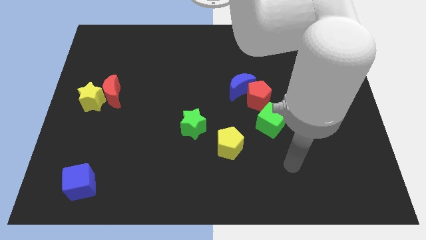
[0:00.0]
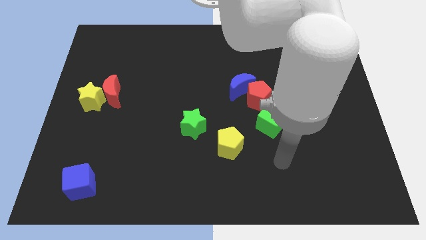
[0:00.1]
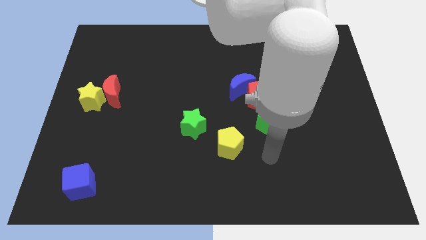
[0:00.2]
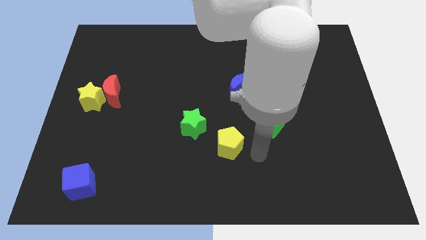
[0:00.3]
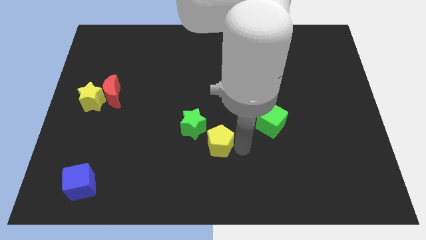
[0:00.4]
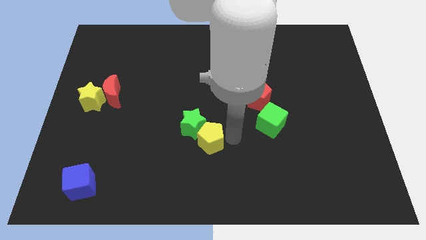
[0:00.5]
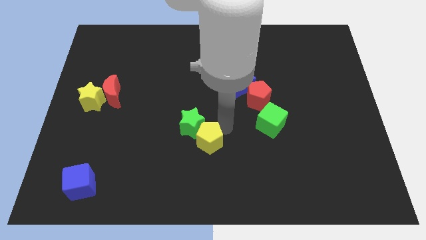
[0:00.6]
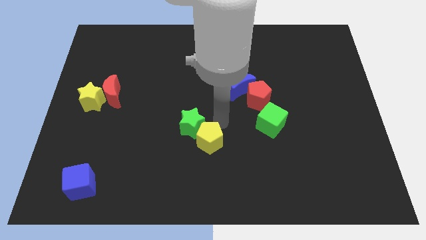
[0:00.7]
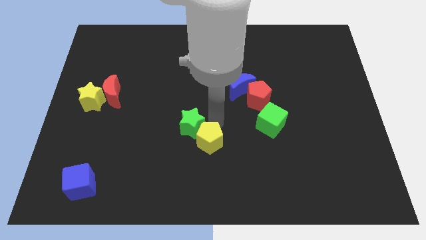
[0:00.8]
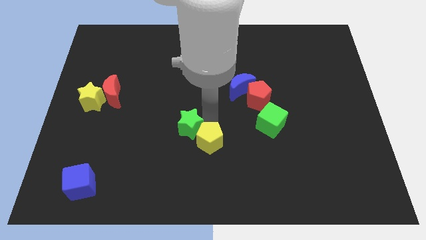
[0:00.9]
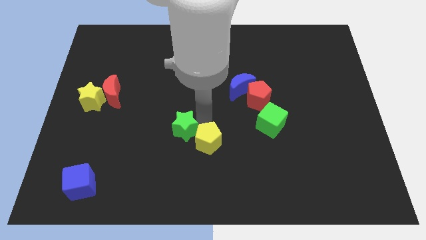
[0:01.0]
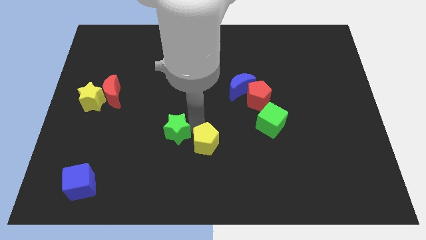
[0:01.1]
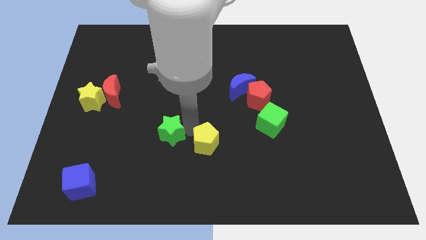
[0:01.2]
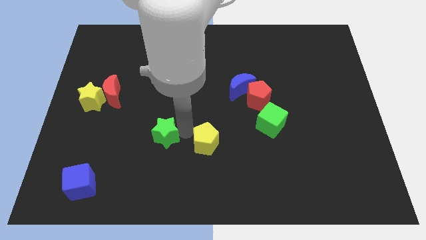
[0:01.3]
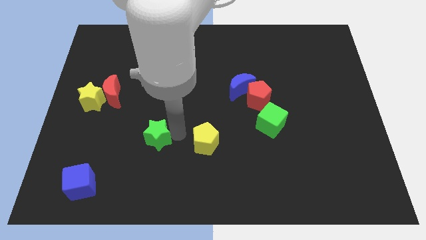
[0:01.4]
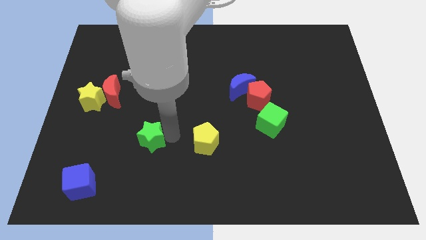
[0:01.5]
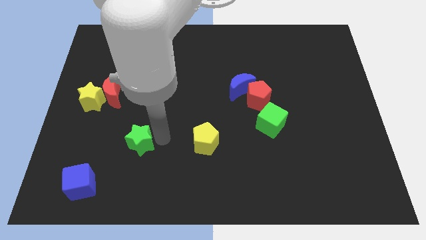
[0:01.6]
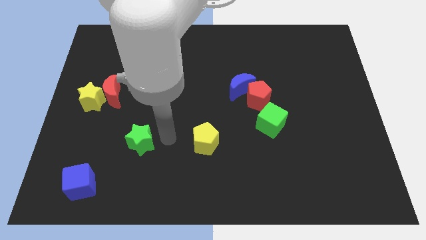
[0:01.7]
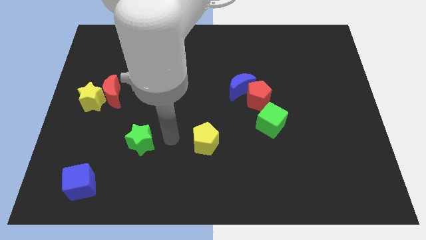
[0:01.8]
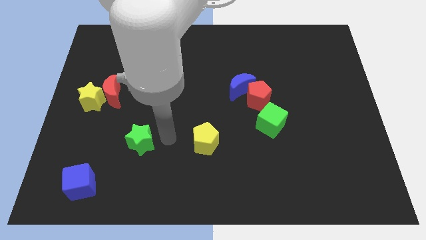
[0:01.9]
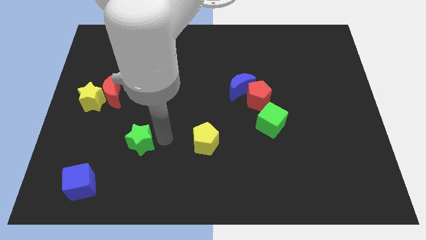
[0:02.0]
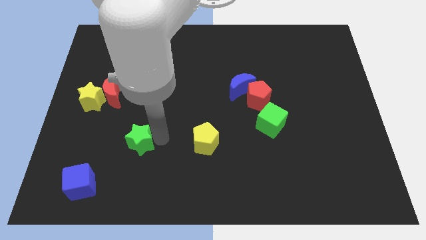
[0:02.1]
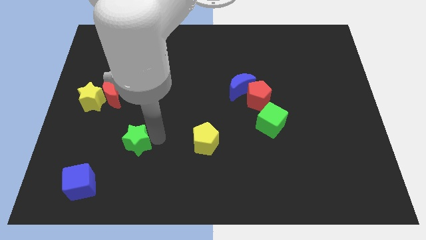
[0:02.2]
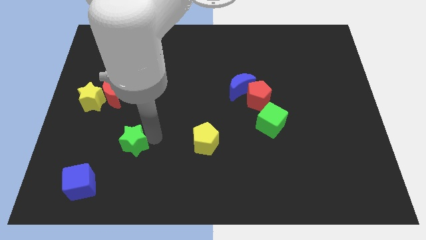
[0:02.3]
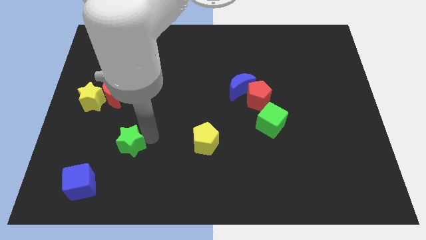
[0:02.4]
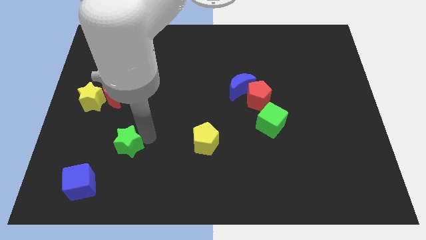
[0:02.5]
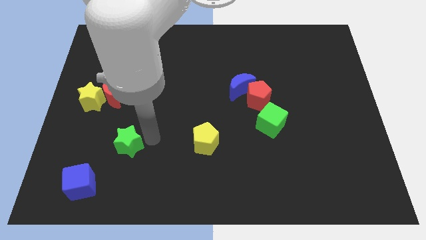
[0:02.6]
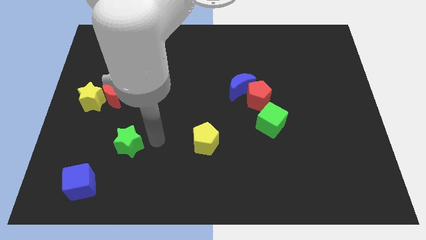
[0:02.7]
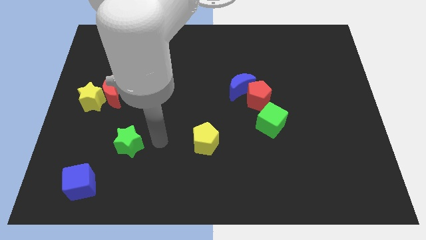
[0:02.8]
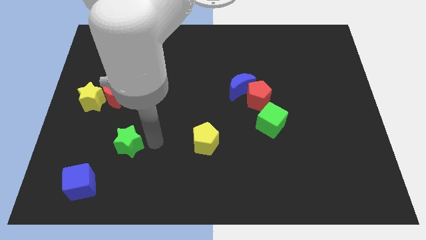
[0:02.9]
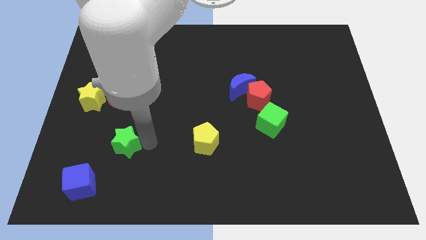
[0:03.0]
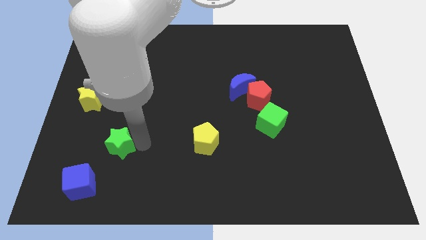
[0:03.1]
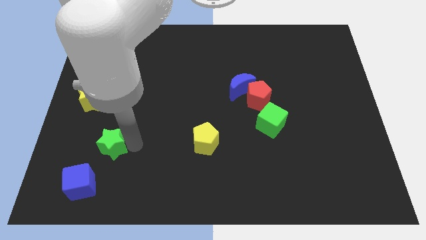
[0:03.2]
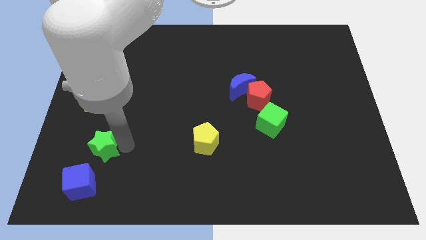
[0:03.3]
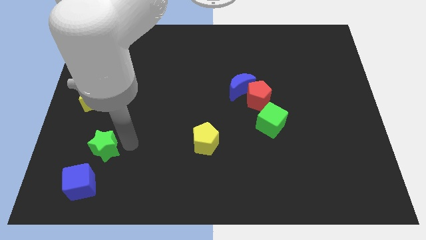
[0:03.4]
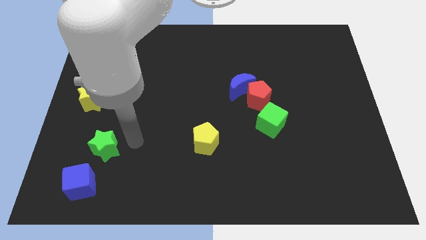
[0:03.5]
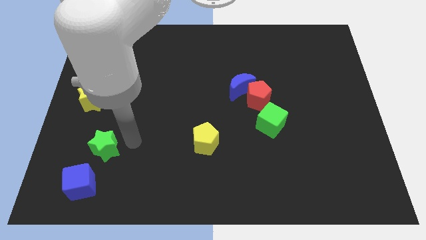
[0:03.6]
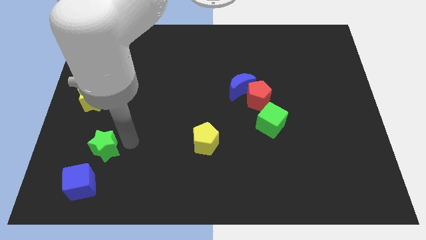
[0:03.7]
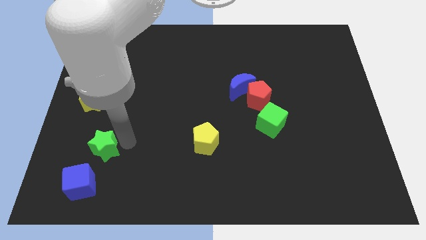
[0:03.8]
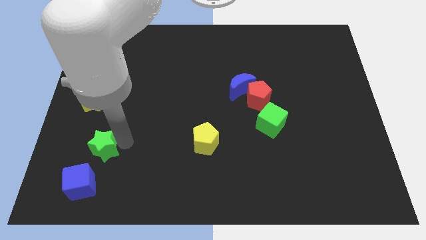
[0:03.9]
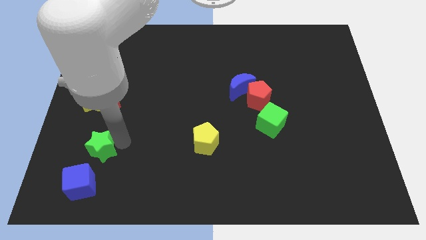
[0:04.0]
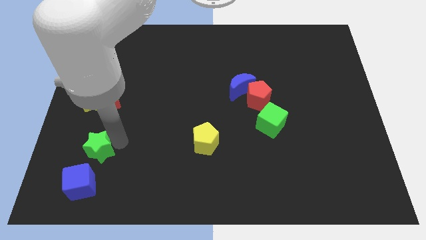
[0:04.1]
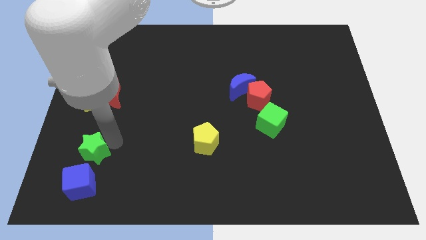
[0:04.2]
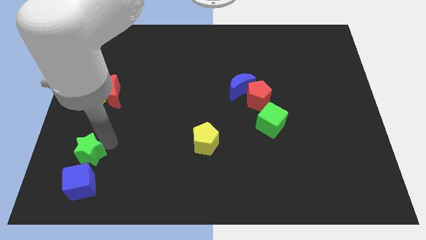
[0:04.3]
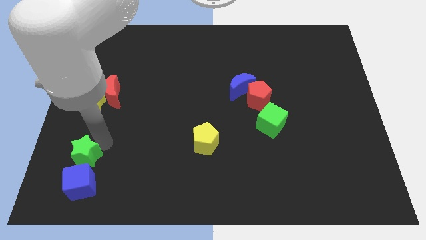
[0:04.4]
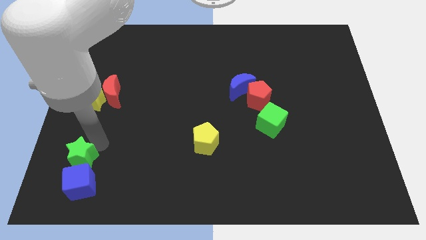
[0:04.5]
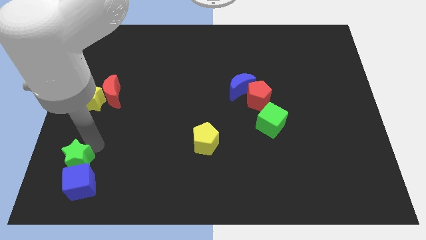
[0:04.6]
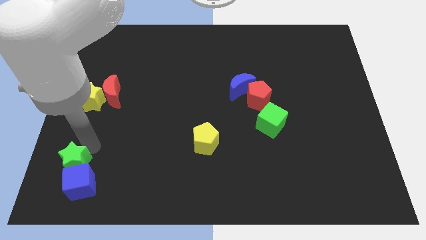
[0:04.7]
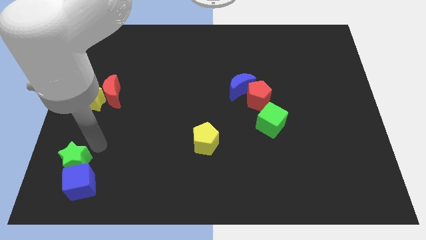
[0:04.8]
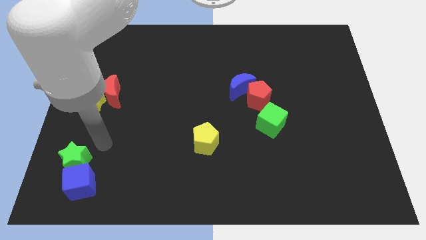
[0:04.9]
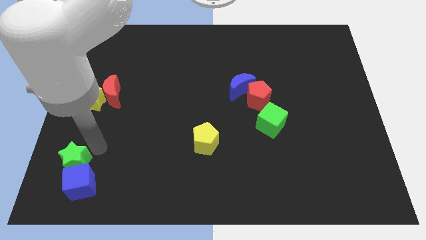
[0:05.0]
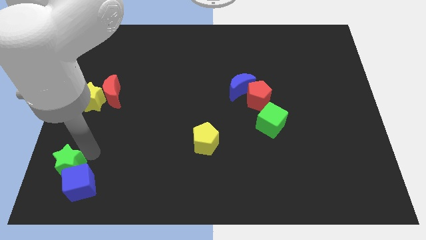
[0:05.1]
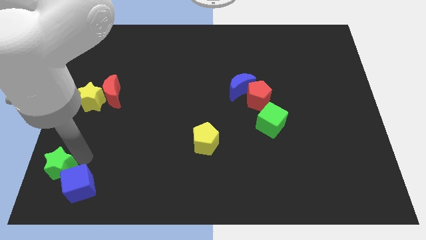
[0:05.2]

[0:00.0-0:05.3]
move the green star to the bottom left of the board

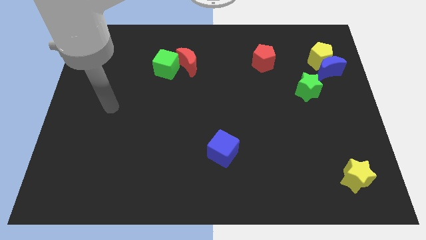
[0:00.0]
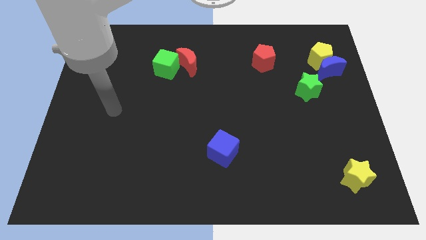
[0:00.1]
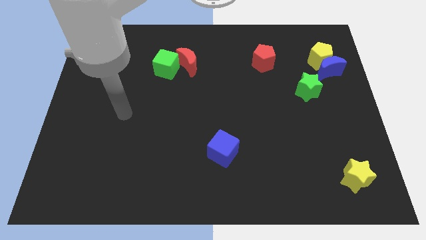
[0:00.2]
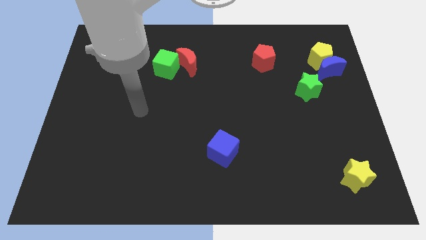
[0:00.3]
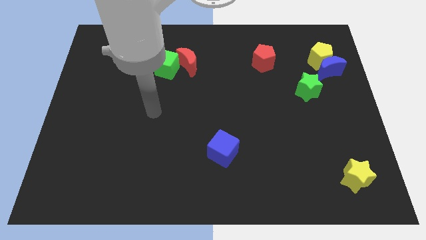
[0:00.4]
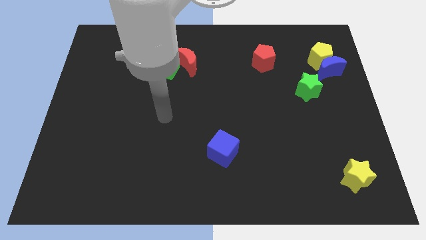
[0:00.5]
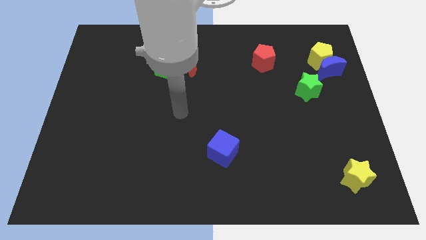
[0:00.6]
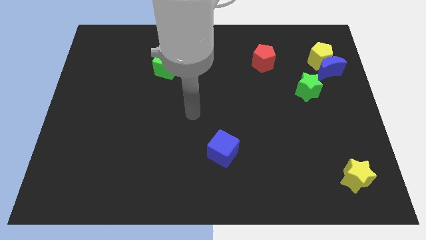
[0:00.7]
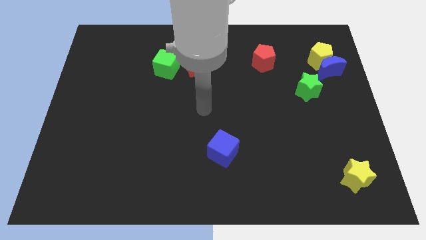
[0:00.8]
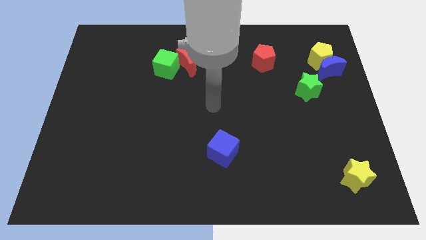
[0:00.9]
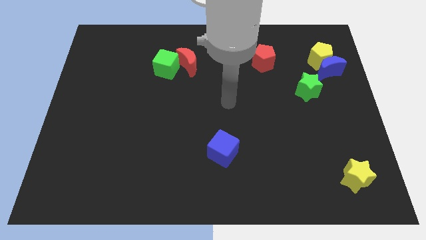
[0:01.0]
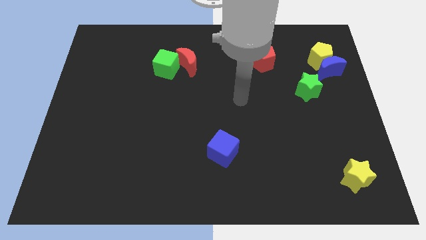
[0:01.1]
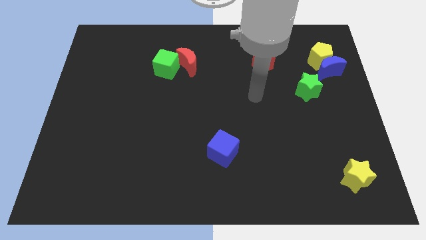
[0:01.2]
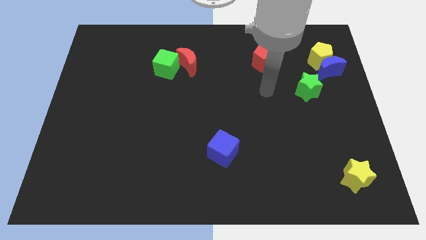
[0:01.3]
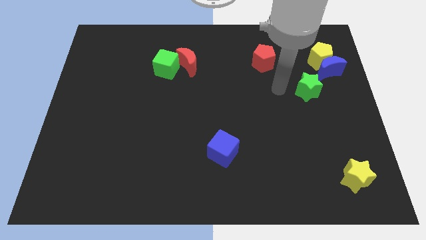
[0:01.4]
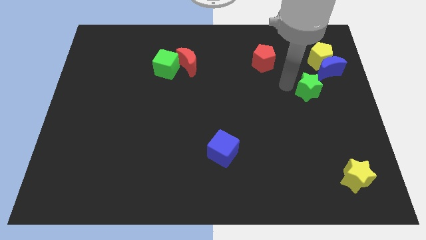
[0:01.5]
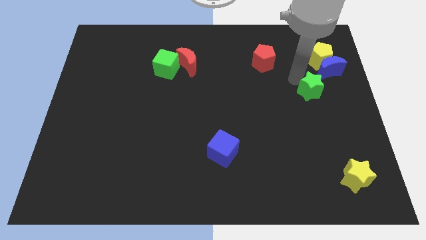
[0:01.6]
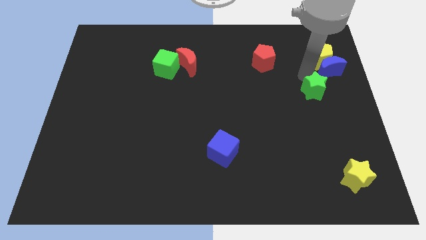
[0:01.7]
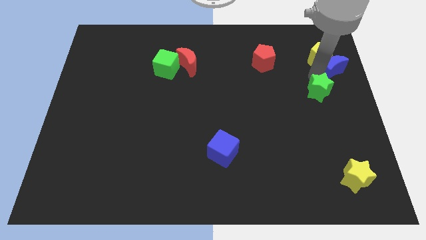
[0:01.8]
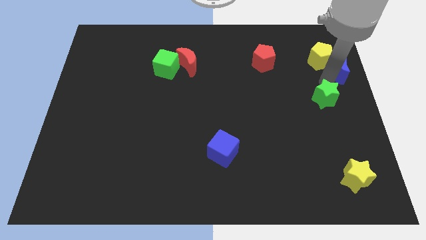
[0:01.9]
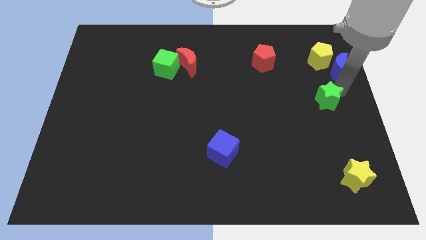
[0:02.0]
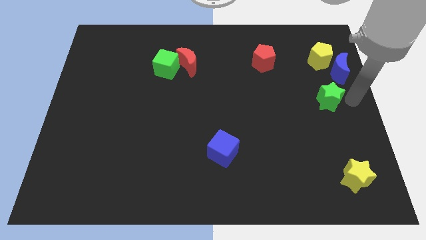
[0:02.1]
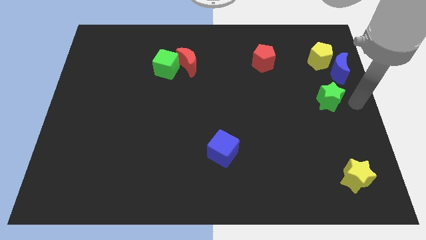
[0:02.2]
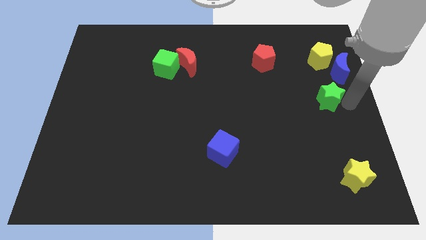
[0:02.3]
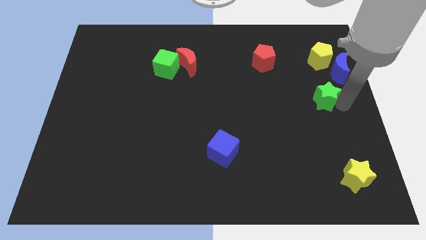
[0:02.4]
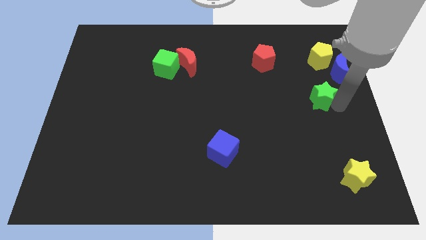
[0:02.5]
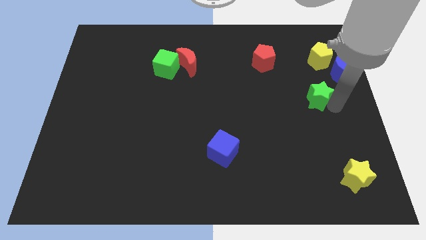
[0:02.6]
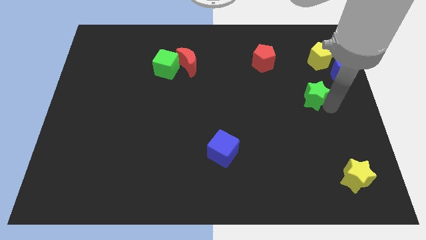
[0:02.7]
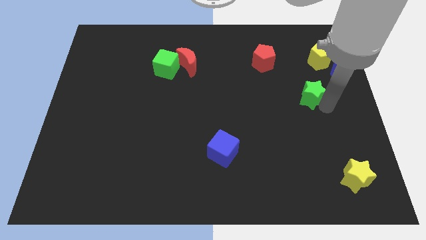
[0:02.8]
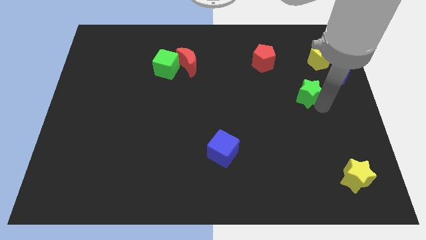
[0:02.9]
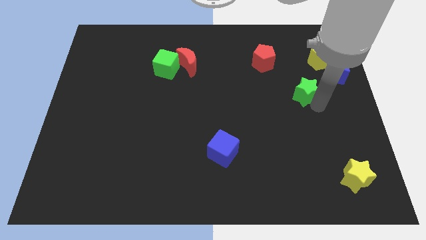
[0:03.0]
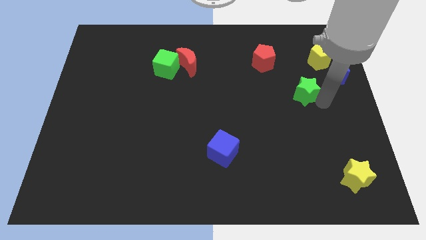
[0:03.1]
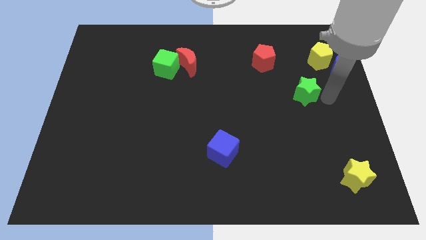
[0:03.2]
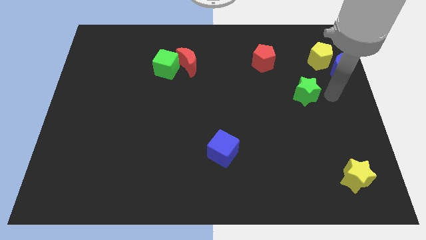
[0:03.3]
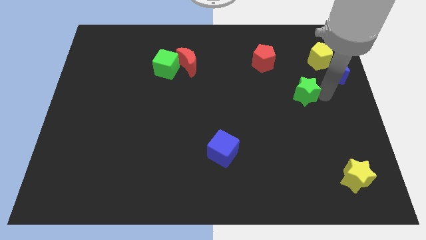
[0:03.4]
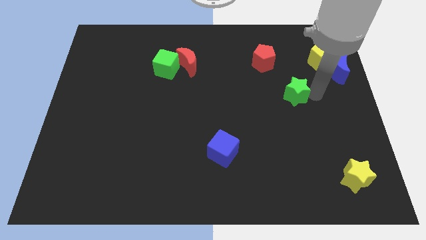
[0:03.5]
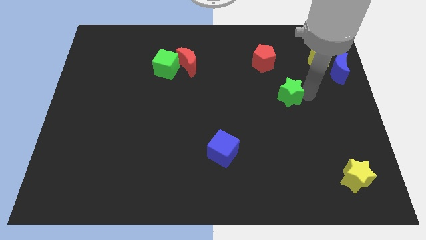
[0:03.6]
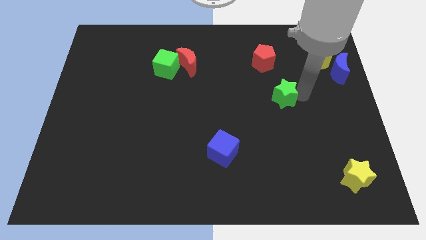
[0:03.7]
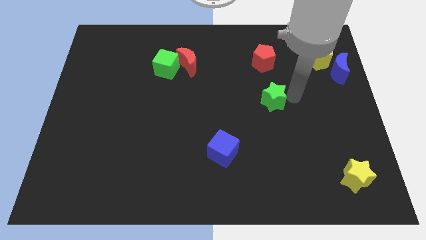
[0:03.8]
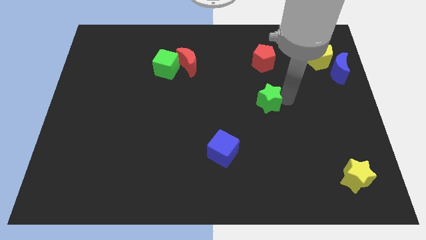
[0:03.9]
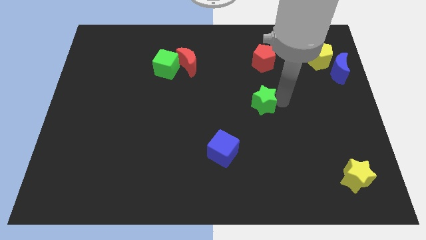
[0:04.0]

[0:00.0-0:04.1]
push the green star to the middle
